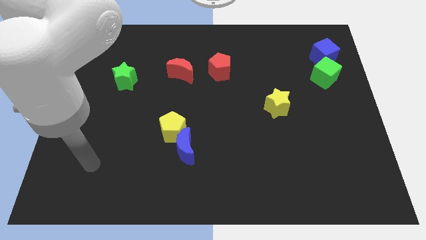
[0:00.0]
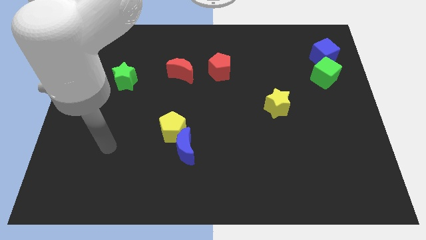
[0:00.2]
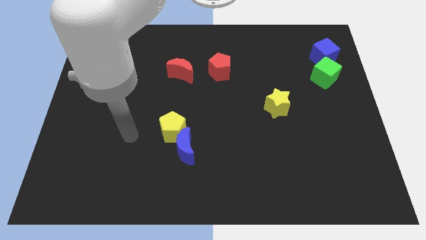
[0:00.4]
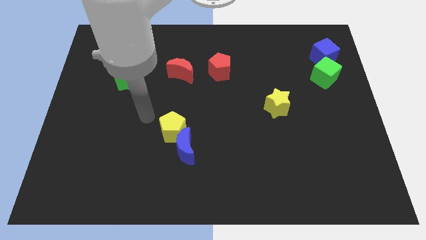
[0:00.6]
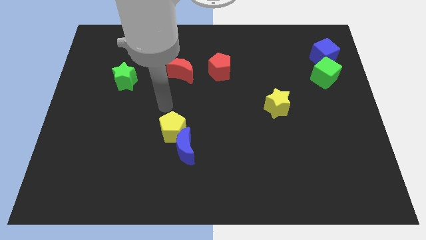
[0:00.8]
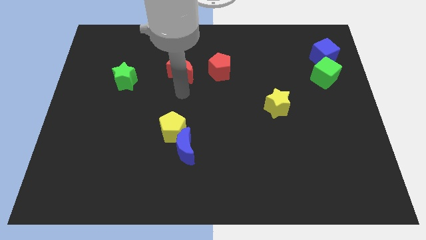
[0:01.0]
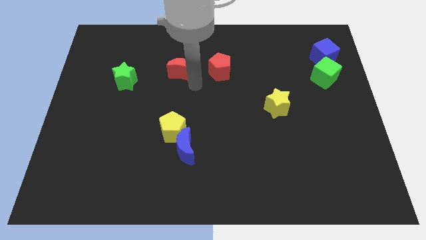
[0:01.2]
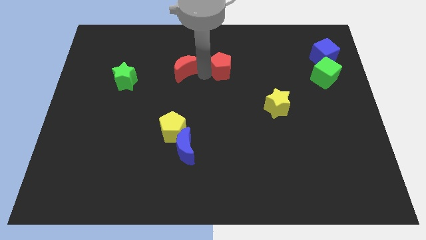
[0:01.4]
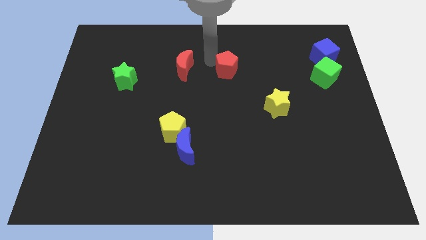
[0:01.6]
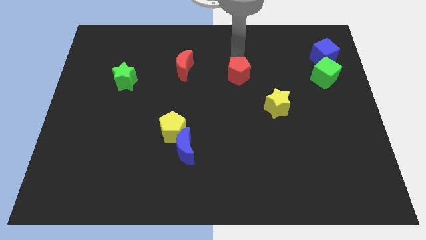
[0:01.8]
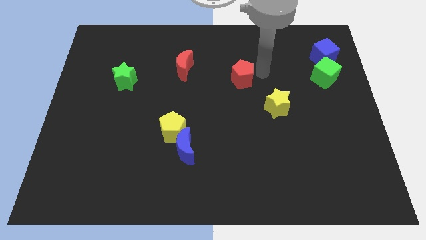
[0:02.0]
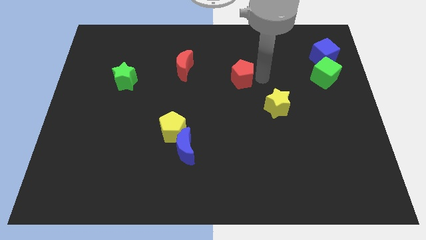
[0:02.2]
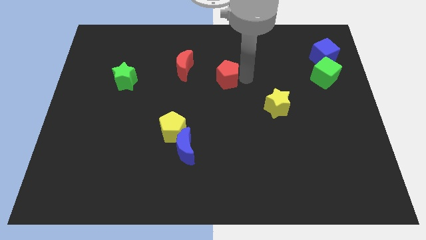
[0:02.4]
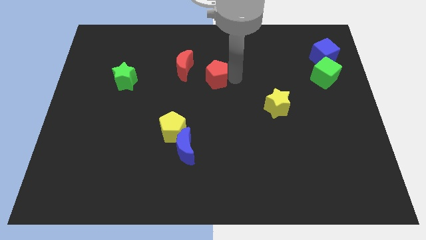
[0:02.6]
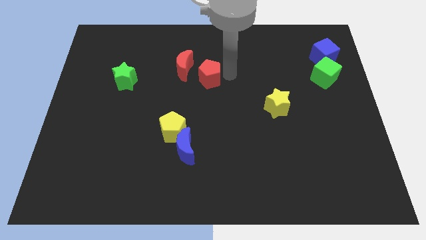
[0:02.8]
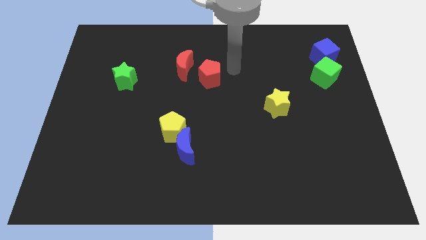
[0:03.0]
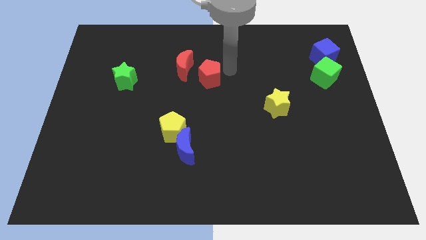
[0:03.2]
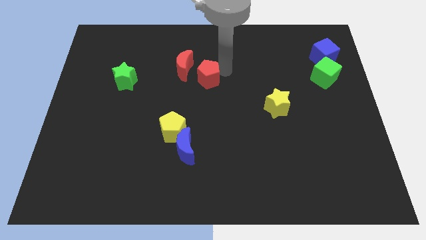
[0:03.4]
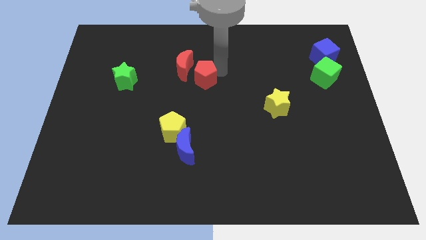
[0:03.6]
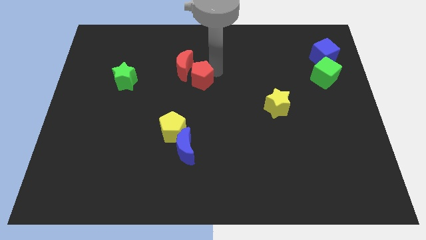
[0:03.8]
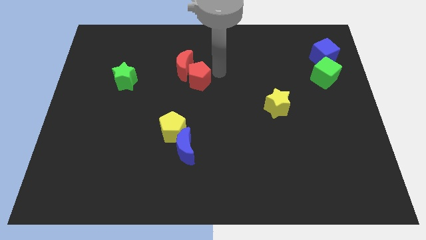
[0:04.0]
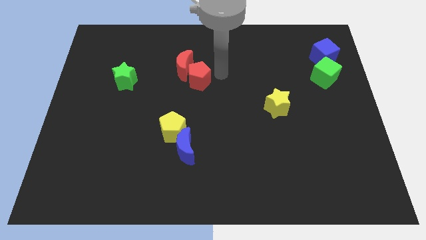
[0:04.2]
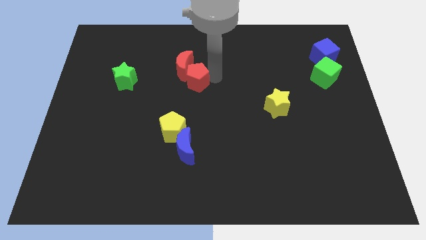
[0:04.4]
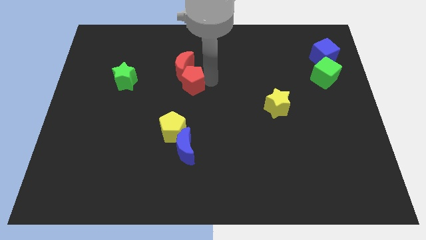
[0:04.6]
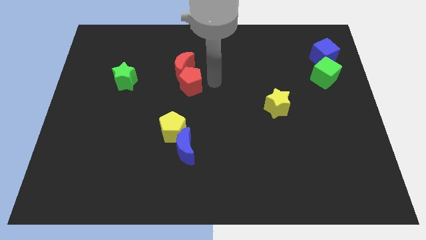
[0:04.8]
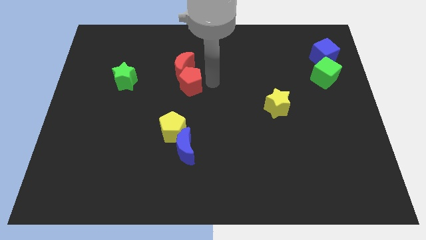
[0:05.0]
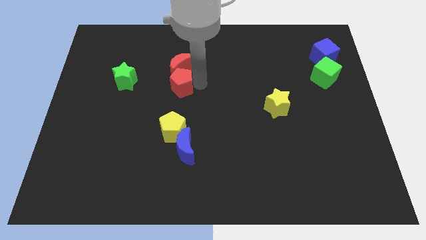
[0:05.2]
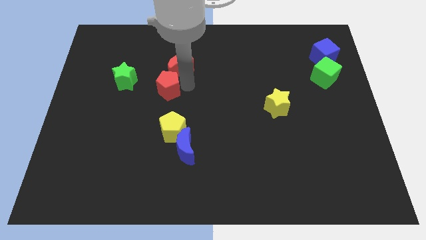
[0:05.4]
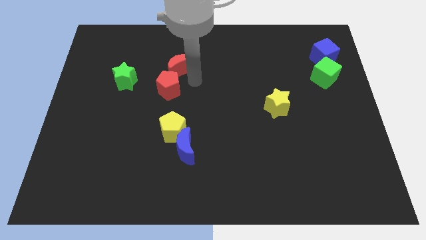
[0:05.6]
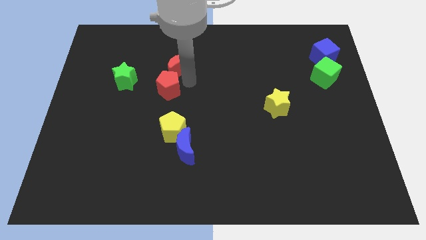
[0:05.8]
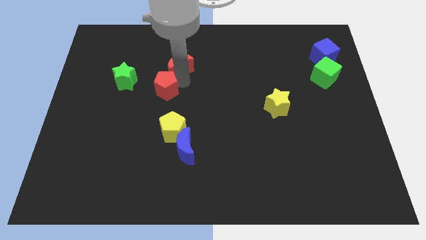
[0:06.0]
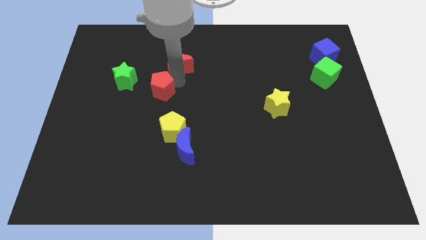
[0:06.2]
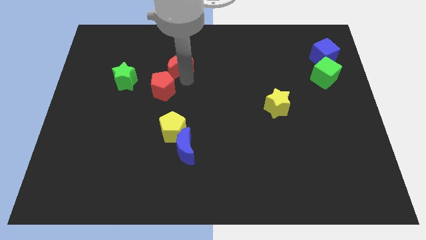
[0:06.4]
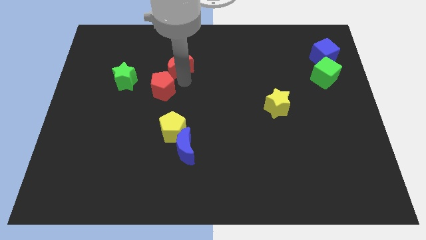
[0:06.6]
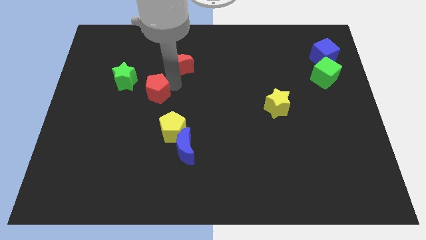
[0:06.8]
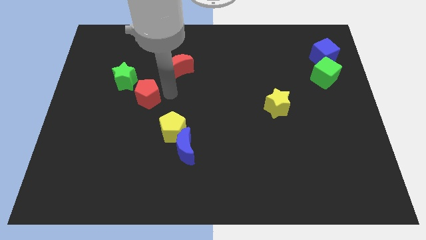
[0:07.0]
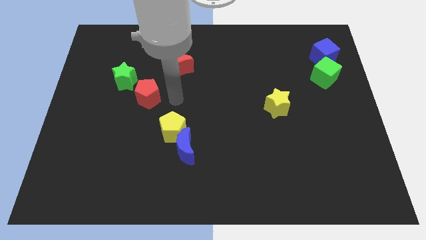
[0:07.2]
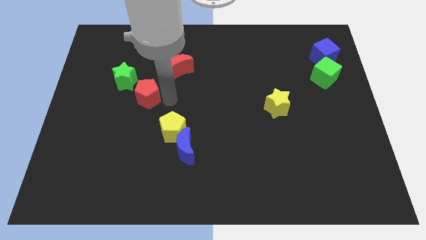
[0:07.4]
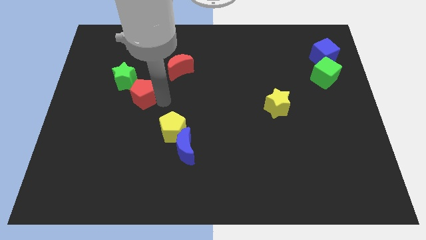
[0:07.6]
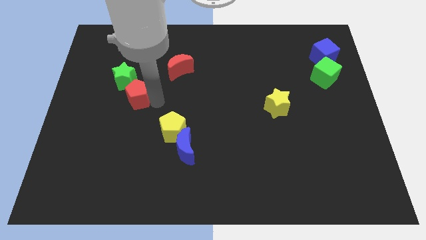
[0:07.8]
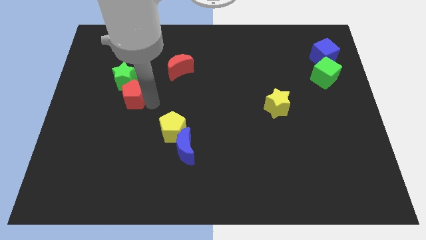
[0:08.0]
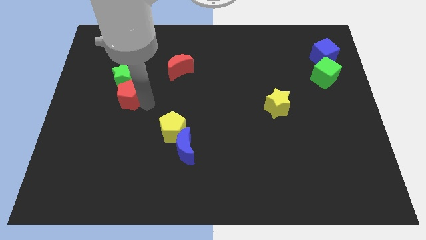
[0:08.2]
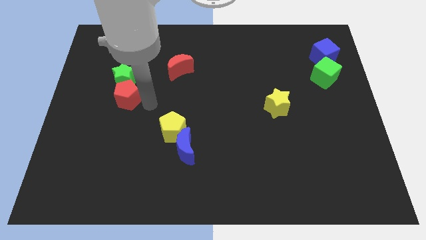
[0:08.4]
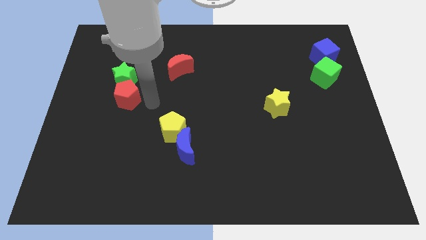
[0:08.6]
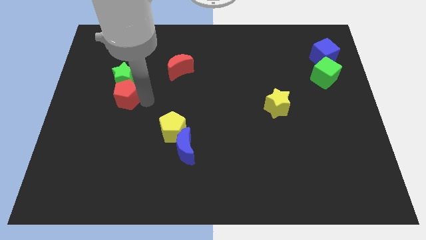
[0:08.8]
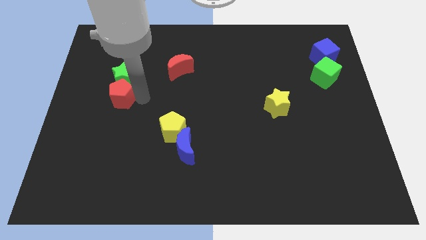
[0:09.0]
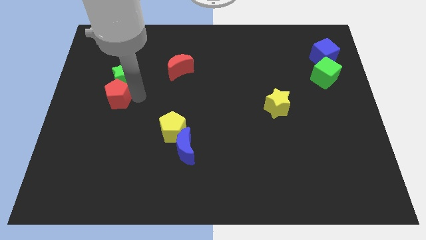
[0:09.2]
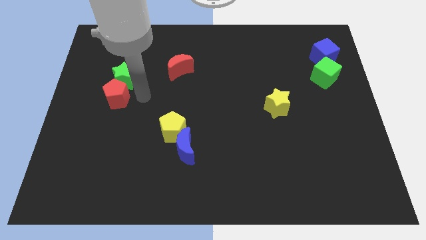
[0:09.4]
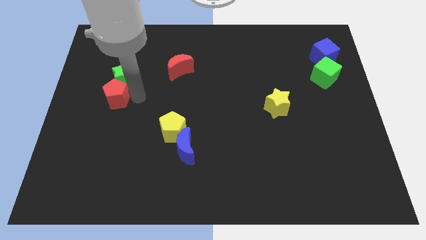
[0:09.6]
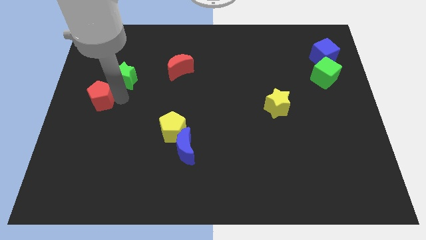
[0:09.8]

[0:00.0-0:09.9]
move the red pentagon to the left side of the board

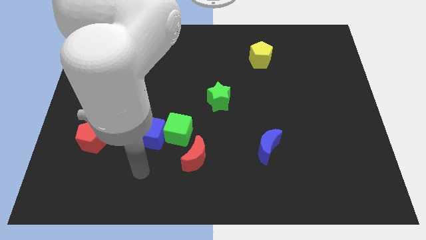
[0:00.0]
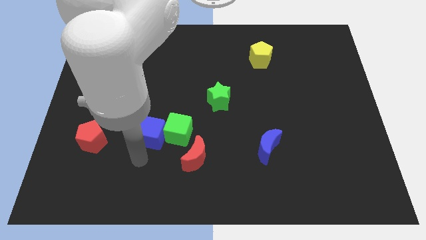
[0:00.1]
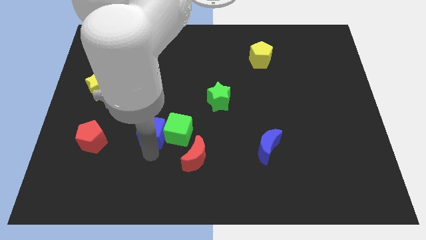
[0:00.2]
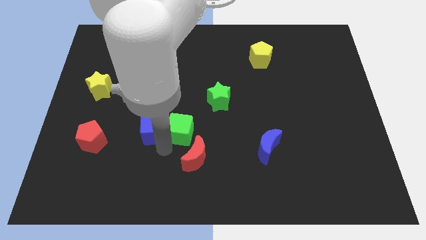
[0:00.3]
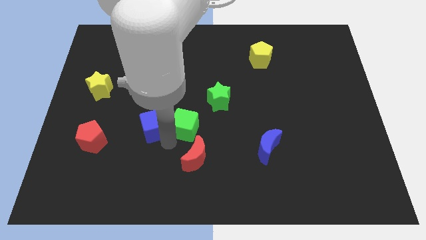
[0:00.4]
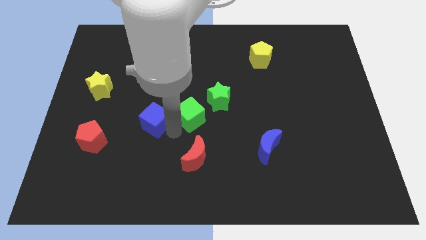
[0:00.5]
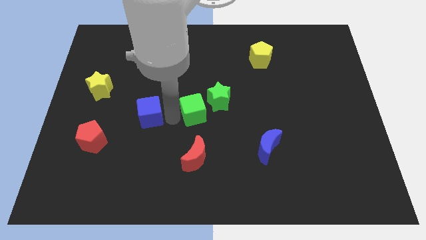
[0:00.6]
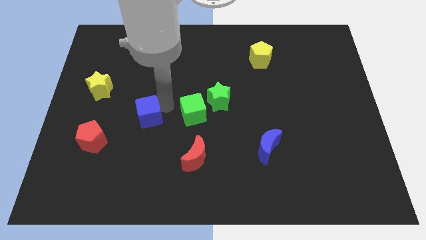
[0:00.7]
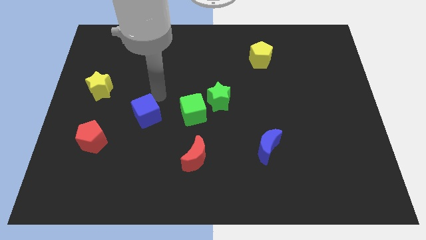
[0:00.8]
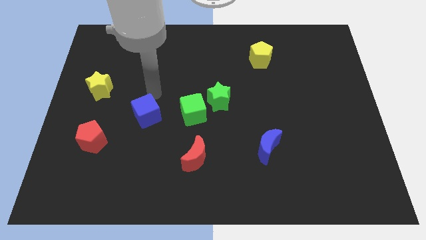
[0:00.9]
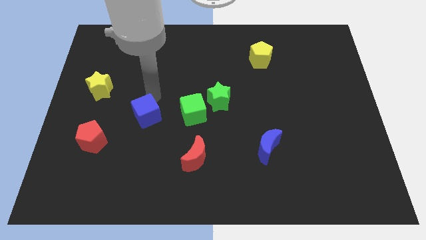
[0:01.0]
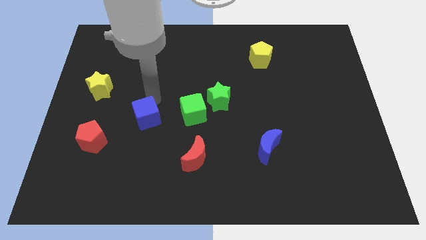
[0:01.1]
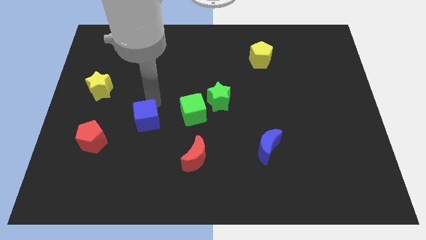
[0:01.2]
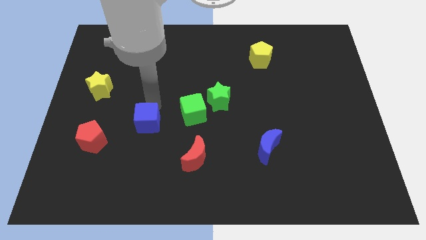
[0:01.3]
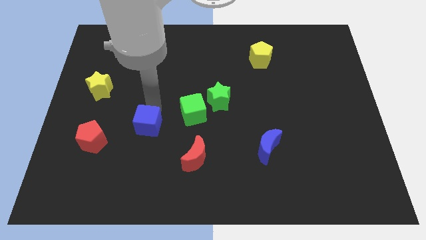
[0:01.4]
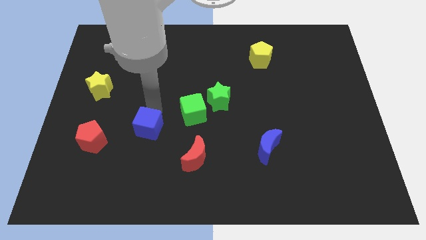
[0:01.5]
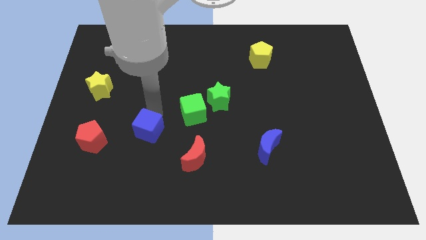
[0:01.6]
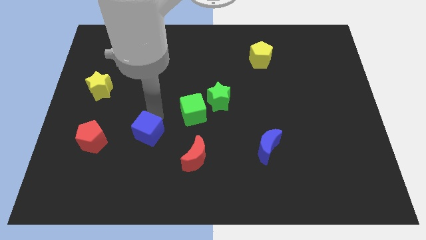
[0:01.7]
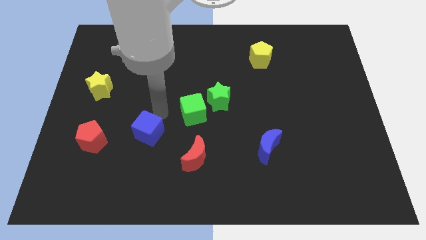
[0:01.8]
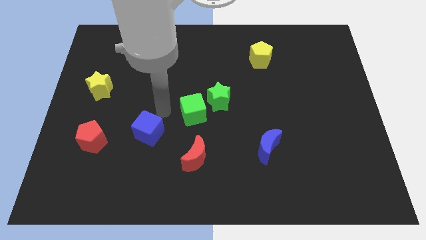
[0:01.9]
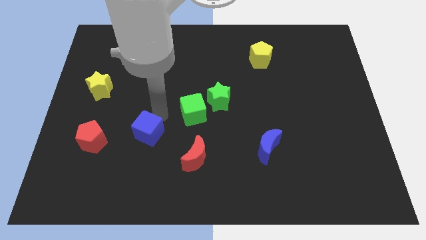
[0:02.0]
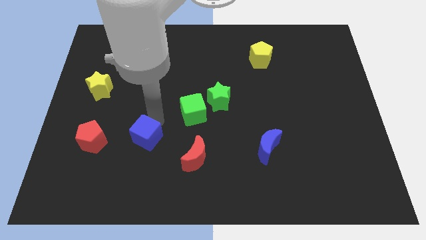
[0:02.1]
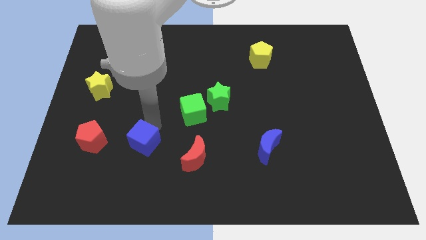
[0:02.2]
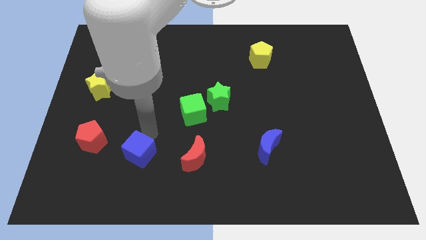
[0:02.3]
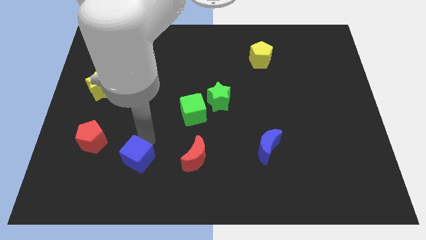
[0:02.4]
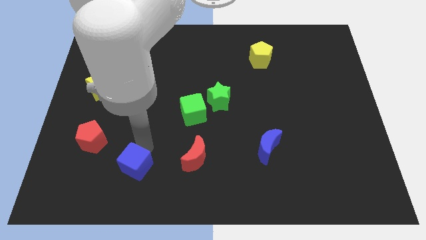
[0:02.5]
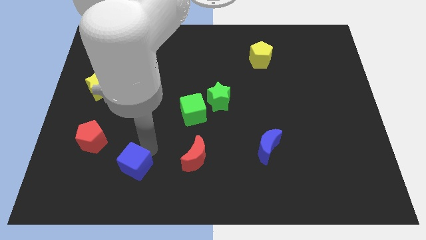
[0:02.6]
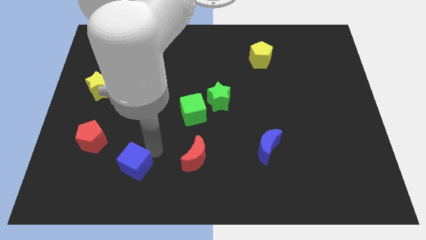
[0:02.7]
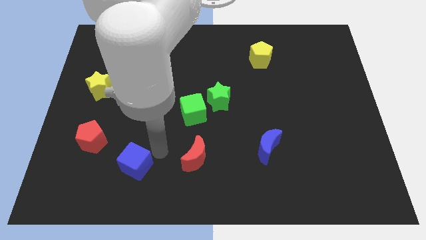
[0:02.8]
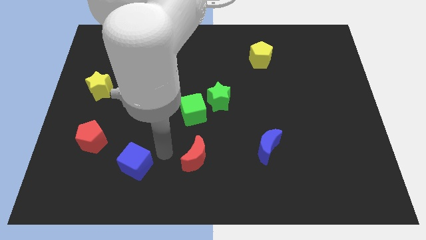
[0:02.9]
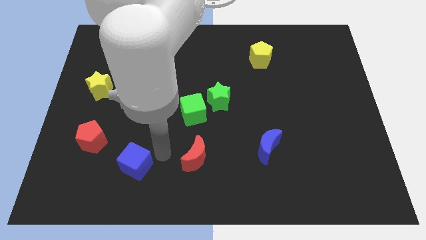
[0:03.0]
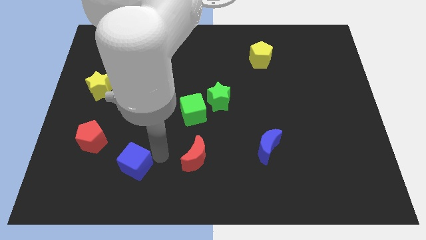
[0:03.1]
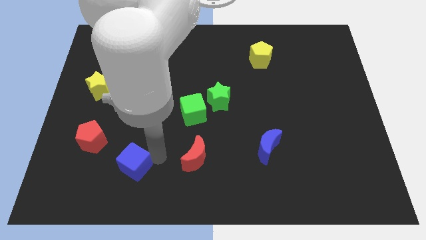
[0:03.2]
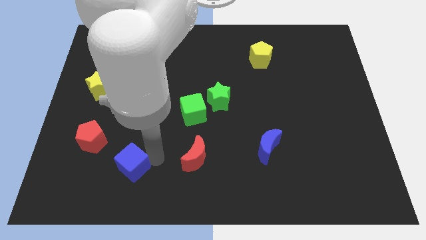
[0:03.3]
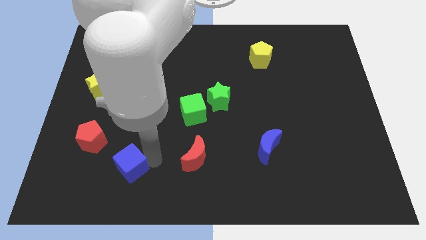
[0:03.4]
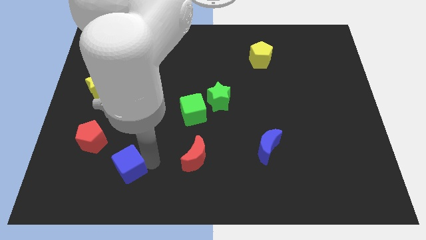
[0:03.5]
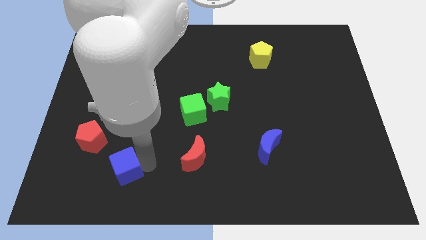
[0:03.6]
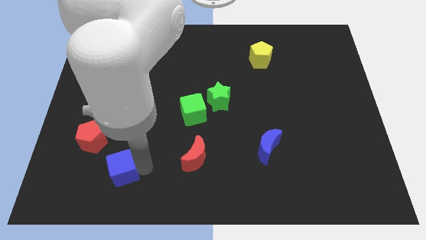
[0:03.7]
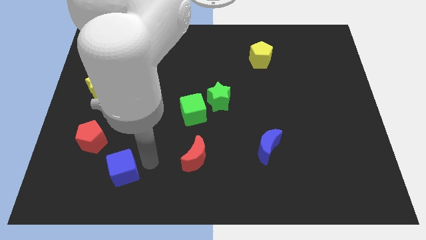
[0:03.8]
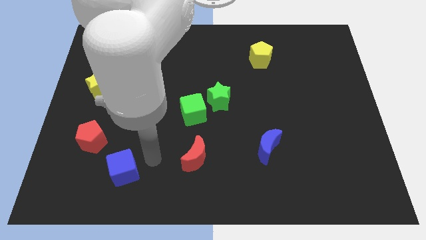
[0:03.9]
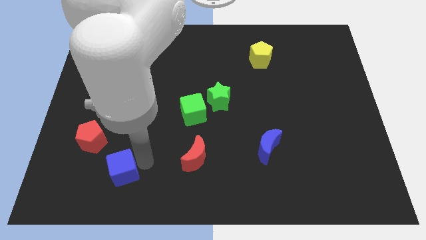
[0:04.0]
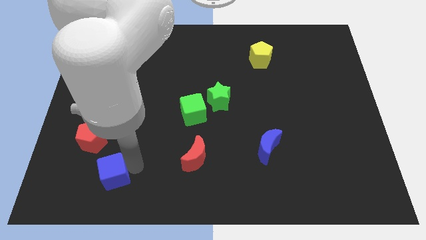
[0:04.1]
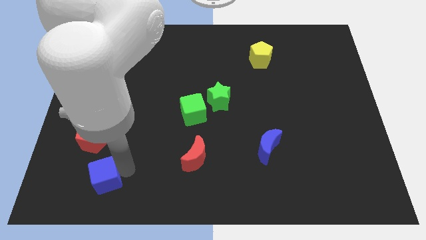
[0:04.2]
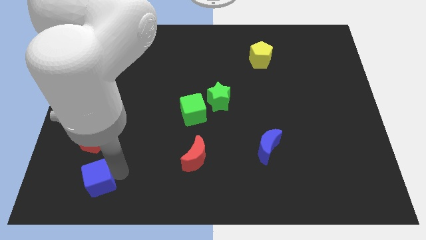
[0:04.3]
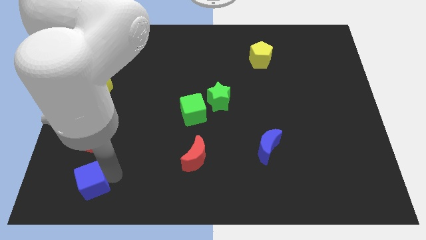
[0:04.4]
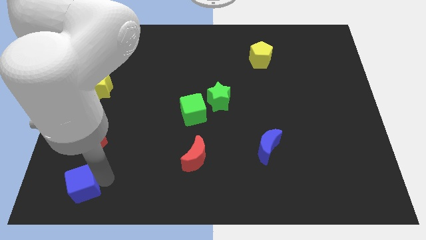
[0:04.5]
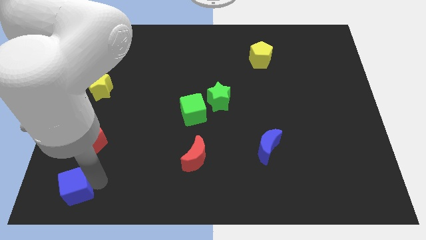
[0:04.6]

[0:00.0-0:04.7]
push the blue cube to the bottom left corner
